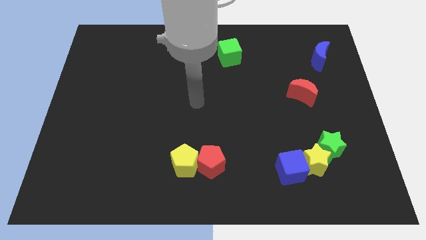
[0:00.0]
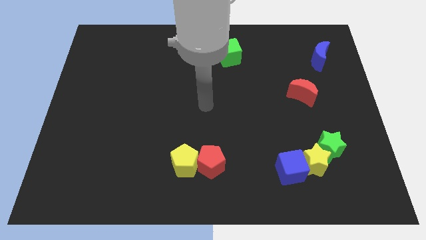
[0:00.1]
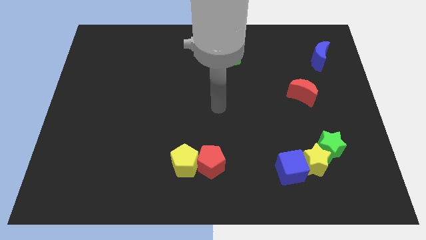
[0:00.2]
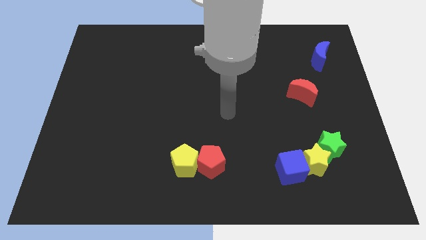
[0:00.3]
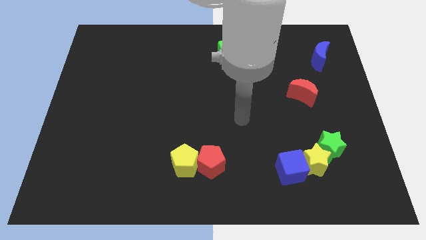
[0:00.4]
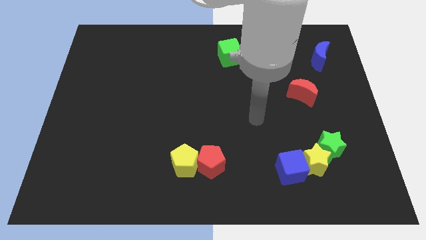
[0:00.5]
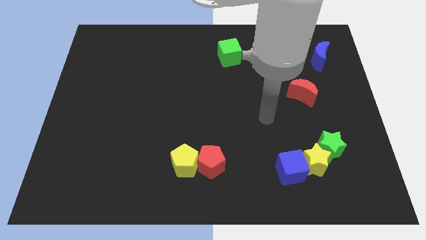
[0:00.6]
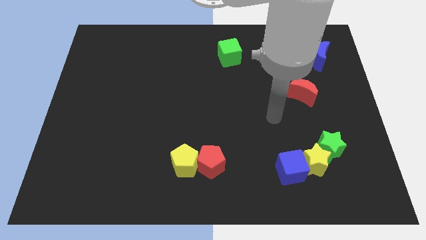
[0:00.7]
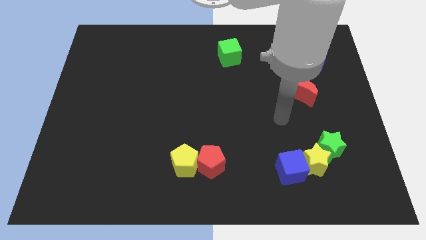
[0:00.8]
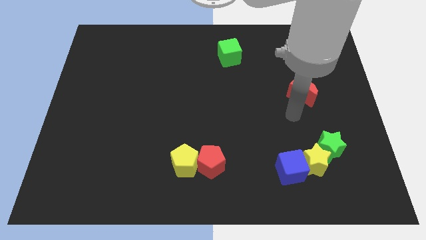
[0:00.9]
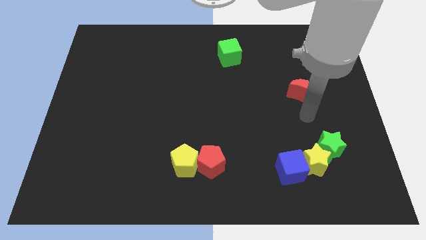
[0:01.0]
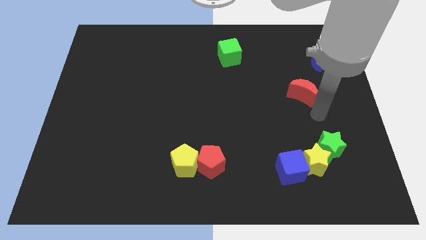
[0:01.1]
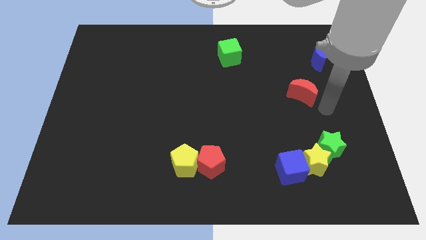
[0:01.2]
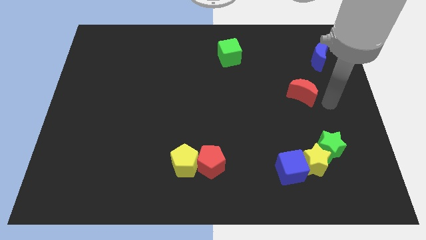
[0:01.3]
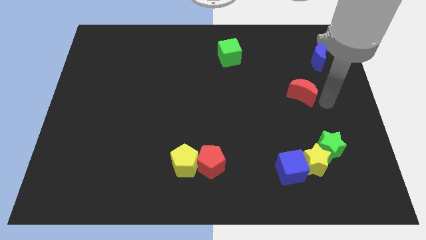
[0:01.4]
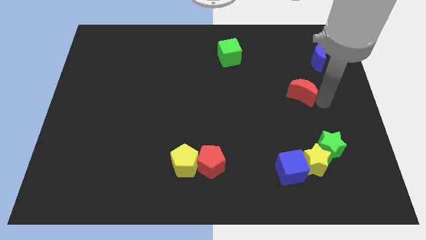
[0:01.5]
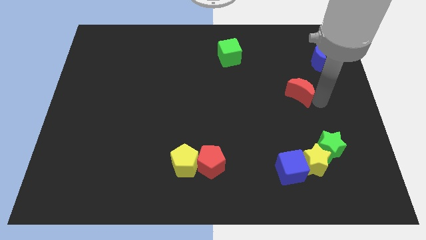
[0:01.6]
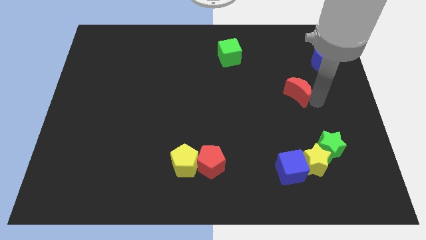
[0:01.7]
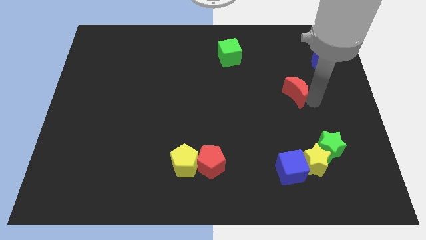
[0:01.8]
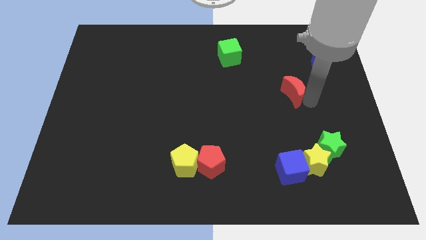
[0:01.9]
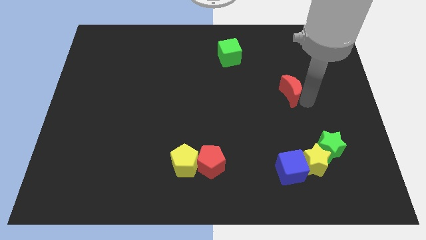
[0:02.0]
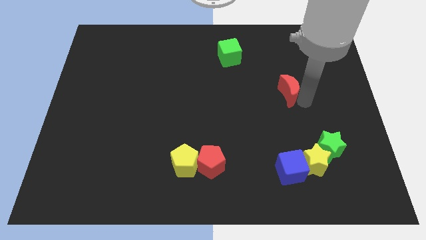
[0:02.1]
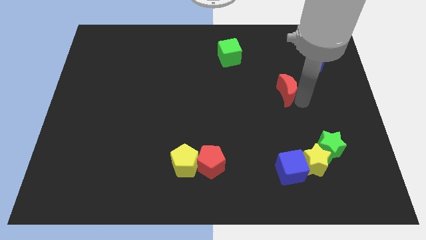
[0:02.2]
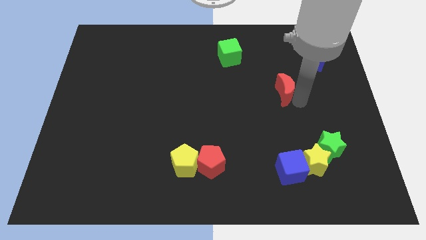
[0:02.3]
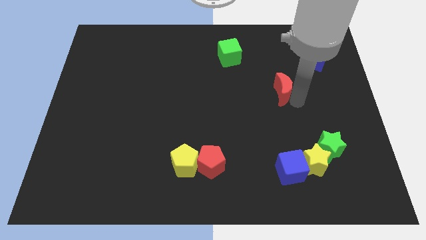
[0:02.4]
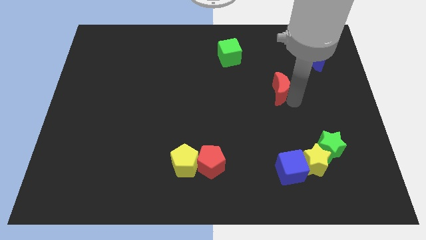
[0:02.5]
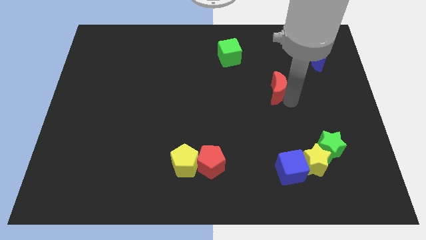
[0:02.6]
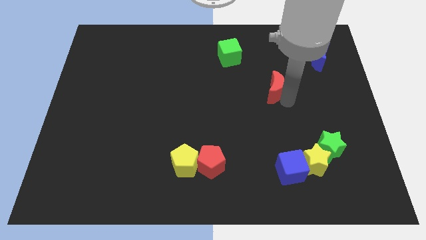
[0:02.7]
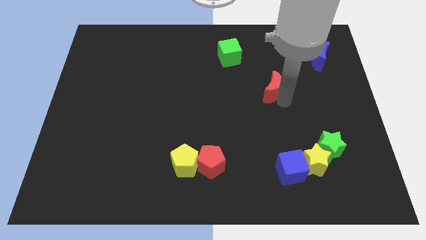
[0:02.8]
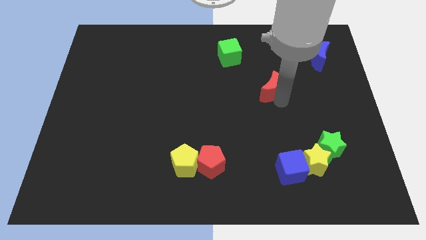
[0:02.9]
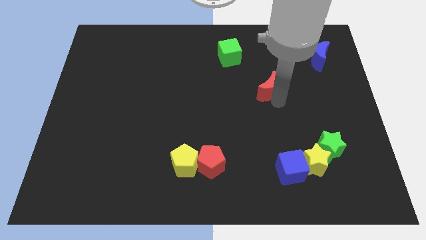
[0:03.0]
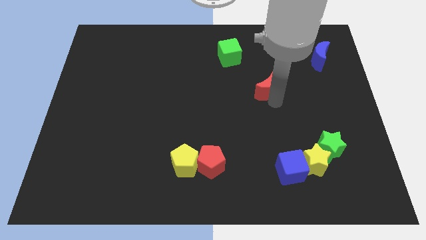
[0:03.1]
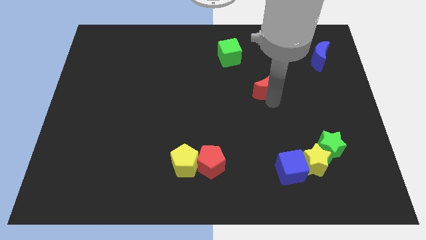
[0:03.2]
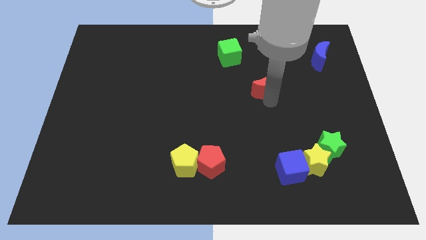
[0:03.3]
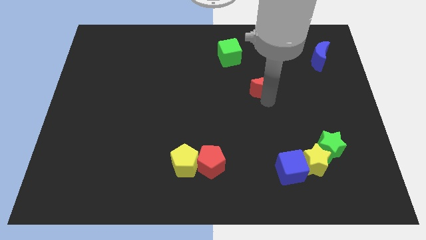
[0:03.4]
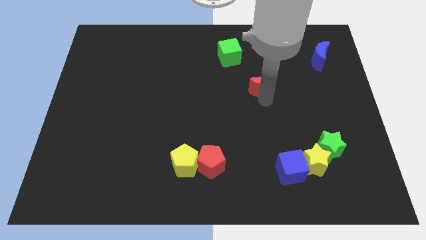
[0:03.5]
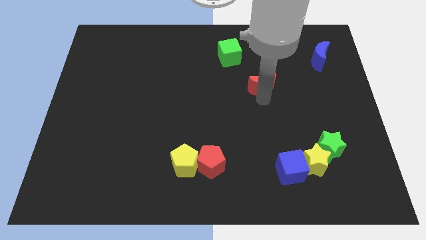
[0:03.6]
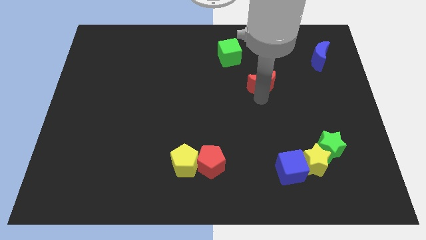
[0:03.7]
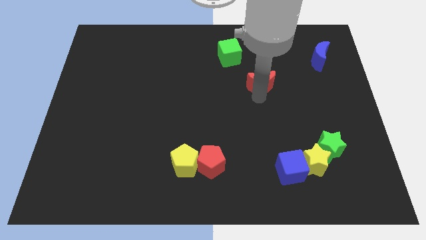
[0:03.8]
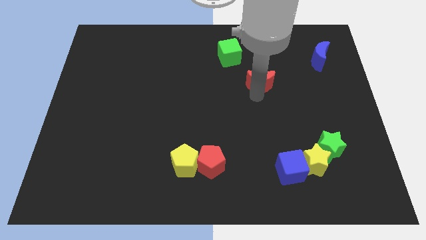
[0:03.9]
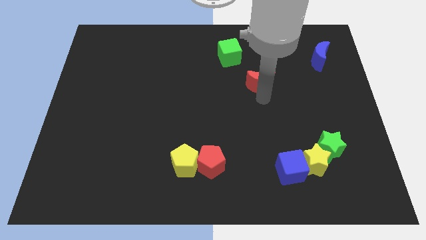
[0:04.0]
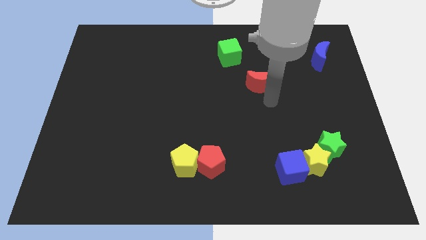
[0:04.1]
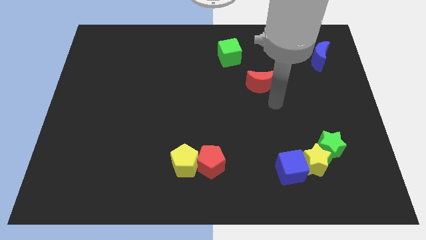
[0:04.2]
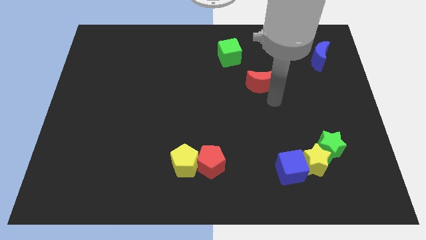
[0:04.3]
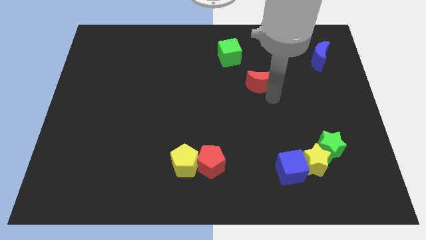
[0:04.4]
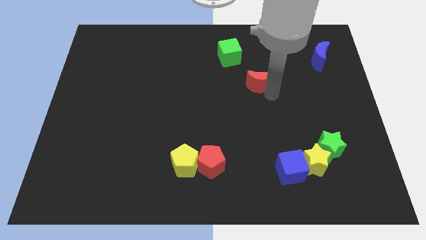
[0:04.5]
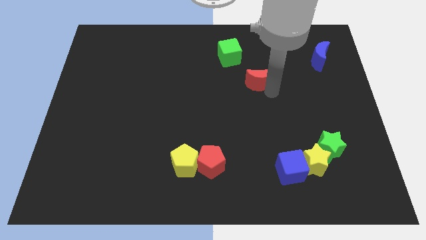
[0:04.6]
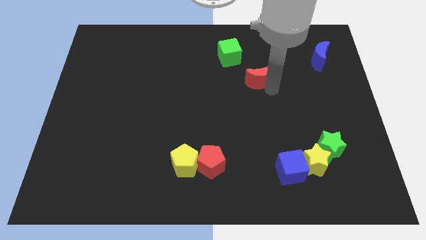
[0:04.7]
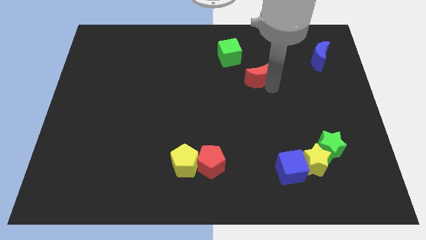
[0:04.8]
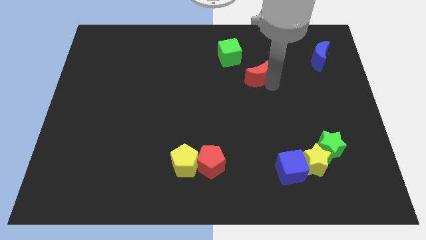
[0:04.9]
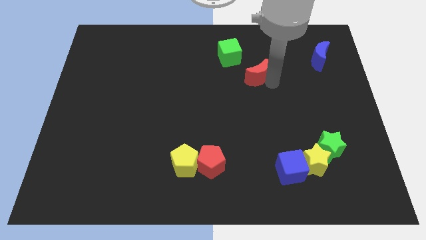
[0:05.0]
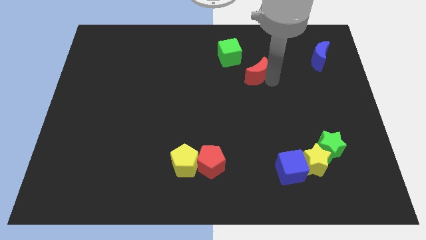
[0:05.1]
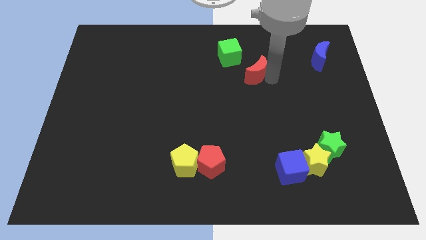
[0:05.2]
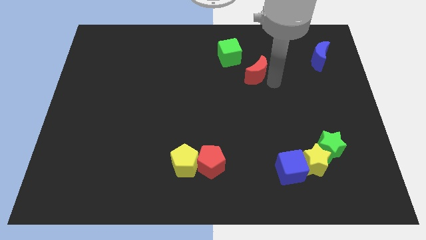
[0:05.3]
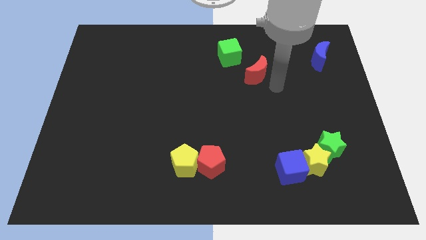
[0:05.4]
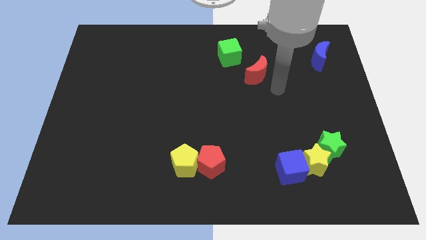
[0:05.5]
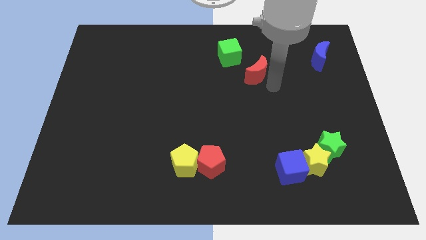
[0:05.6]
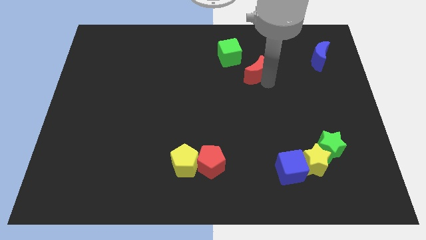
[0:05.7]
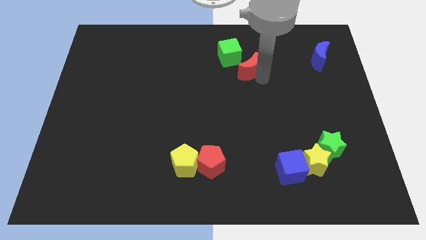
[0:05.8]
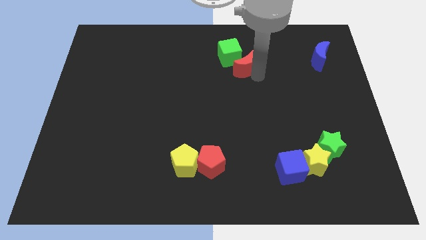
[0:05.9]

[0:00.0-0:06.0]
move the red moon towards the green cube

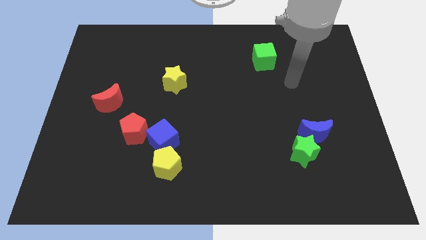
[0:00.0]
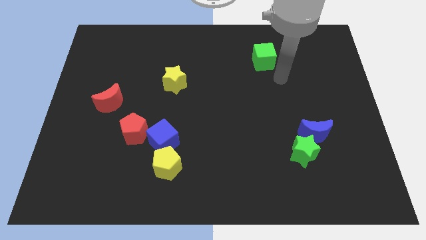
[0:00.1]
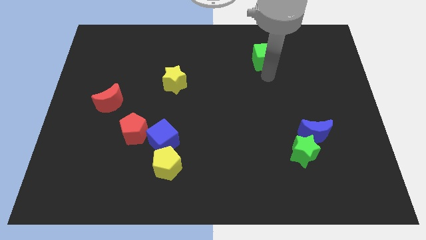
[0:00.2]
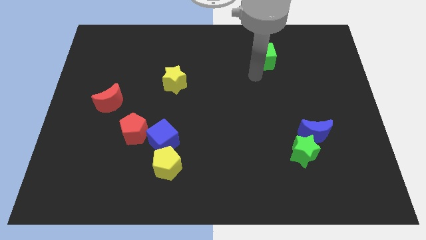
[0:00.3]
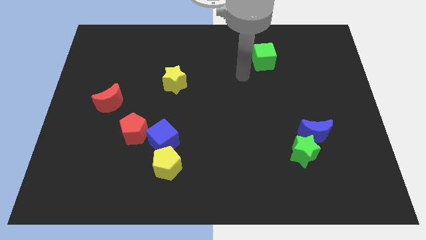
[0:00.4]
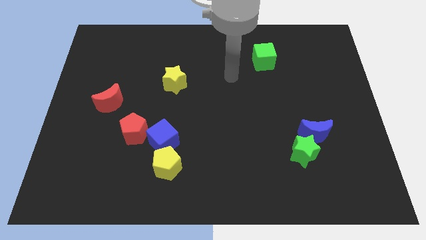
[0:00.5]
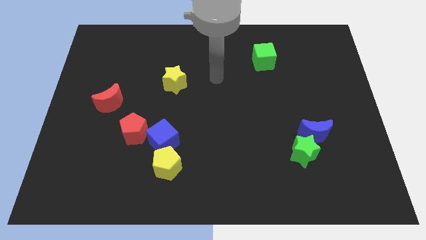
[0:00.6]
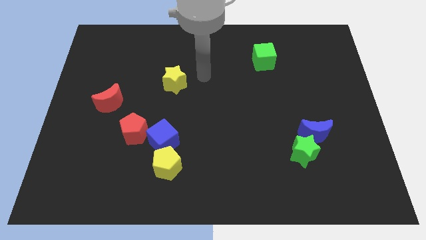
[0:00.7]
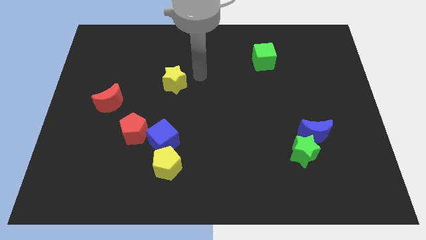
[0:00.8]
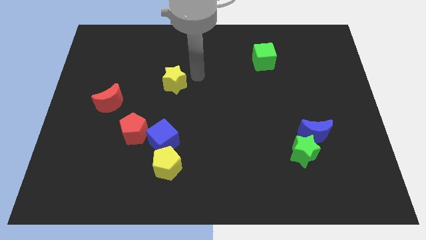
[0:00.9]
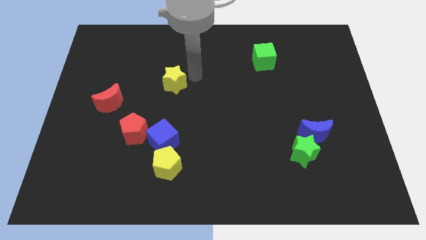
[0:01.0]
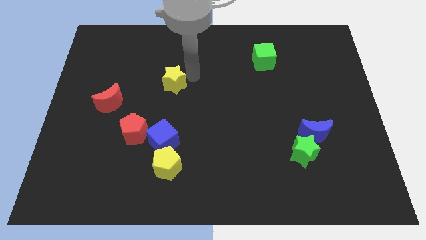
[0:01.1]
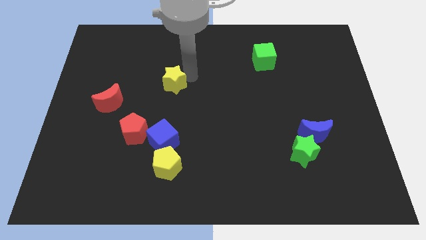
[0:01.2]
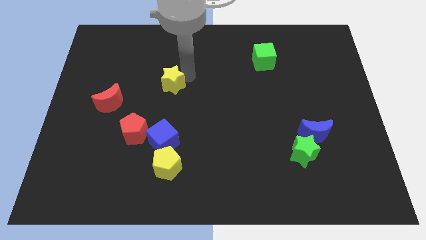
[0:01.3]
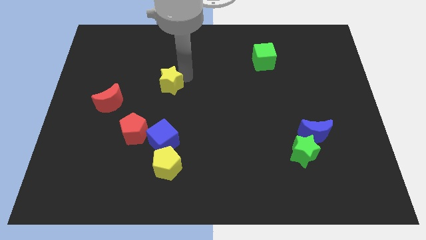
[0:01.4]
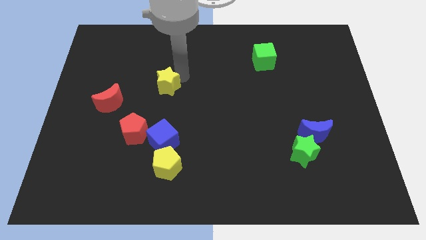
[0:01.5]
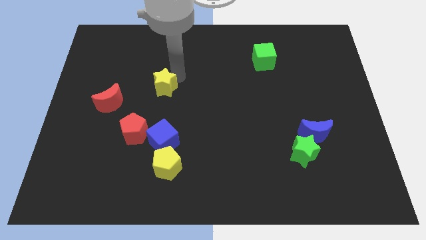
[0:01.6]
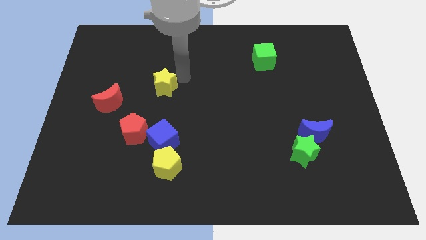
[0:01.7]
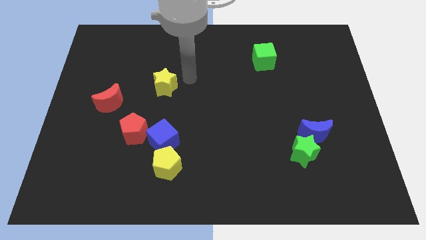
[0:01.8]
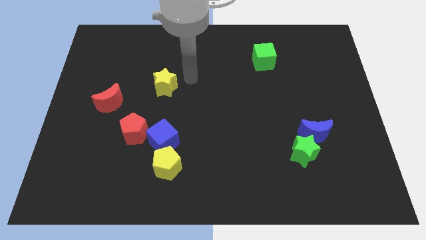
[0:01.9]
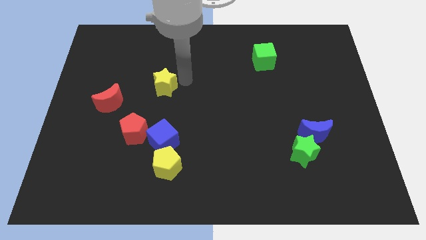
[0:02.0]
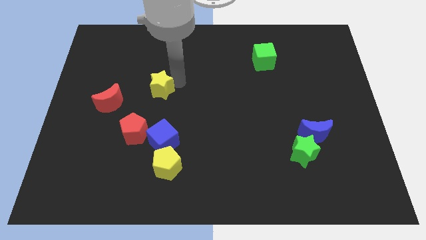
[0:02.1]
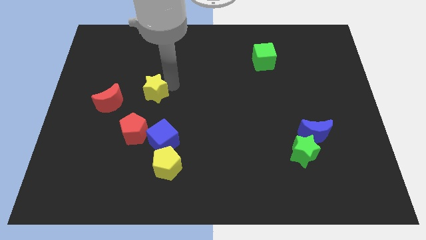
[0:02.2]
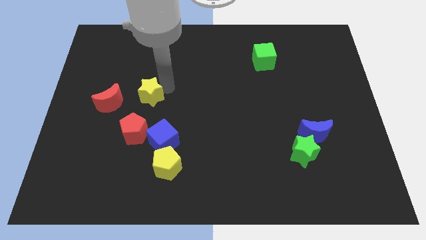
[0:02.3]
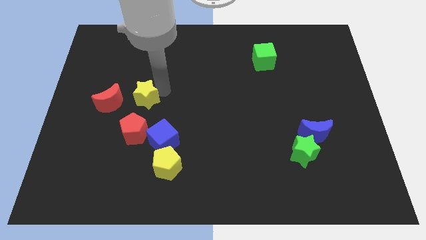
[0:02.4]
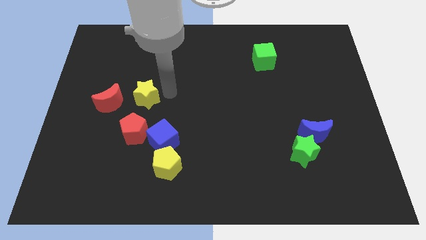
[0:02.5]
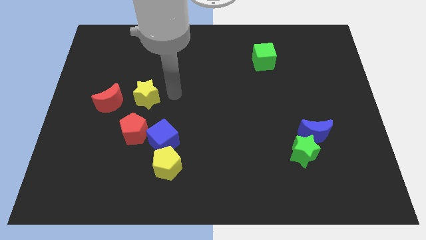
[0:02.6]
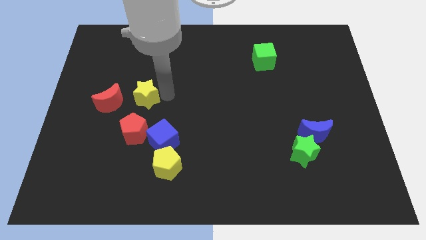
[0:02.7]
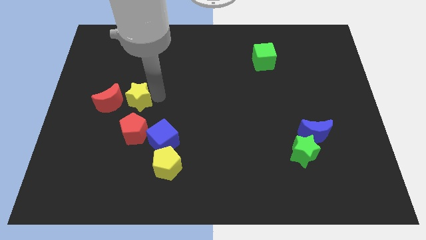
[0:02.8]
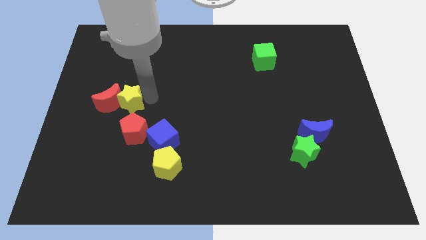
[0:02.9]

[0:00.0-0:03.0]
slide the yellow star close to the red moon
